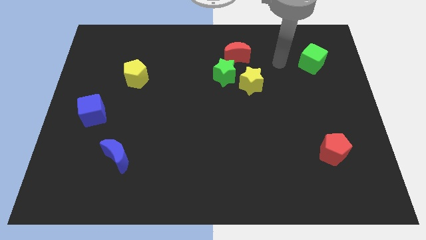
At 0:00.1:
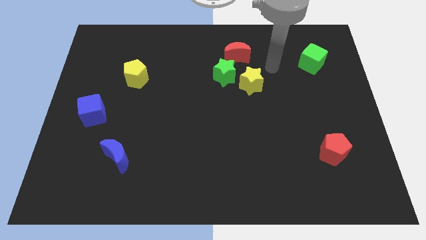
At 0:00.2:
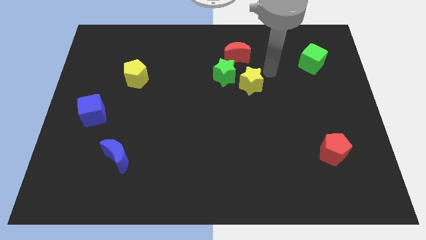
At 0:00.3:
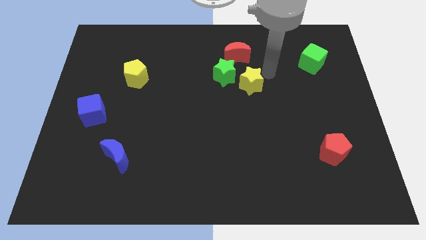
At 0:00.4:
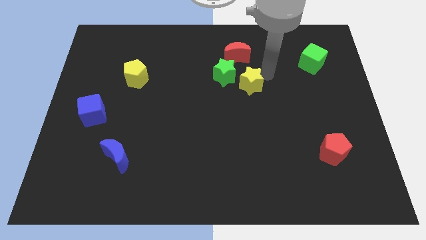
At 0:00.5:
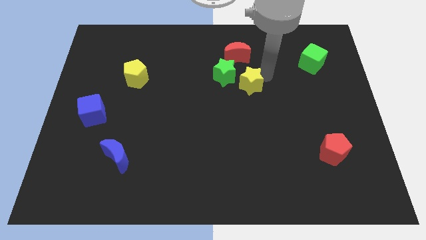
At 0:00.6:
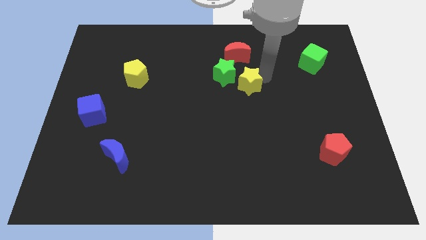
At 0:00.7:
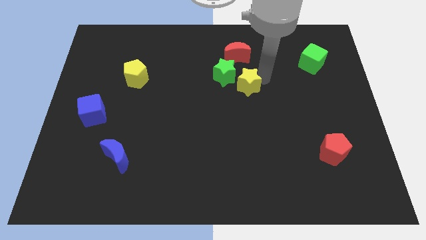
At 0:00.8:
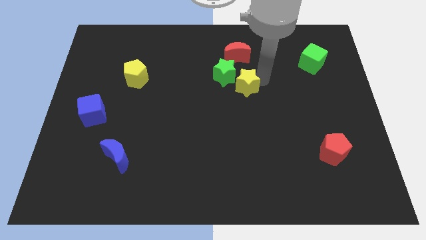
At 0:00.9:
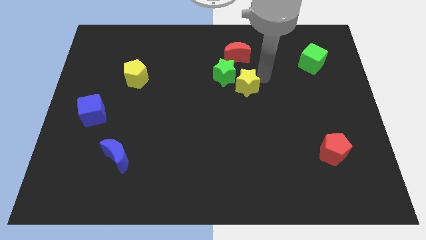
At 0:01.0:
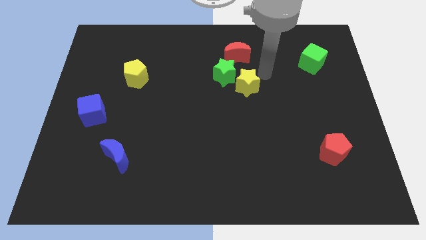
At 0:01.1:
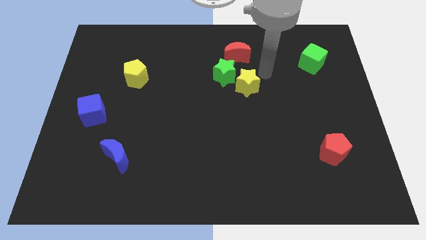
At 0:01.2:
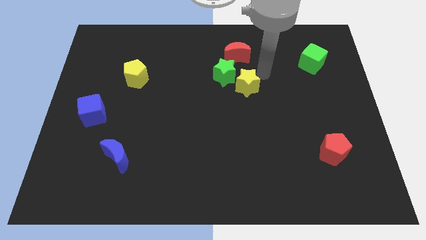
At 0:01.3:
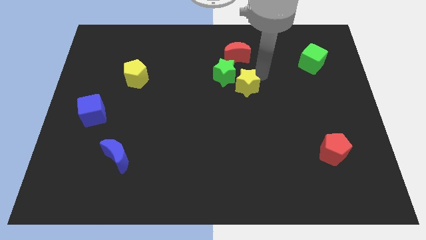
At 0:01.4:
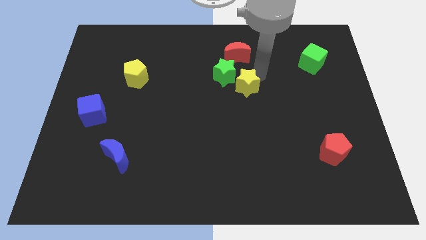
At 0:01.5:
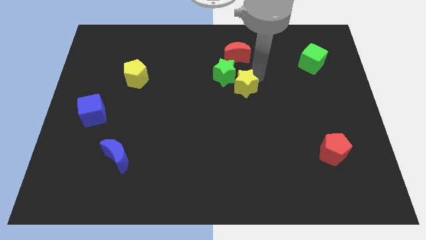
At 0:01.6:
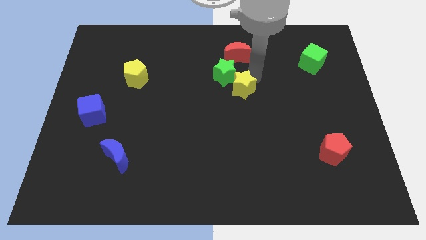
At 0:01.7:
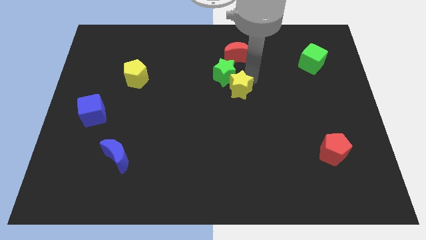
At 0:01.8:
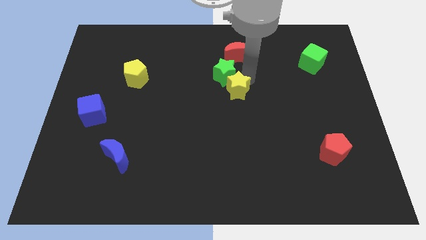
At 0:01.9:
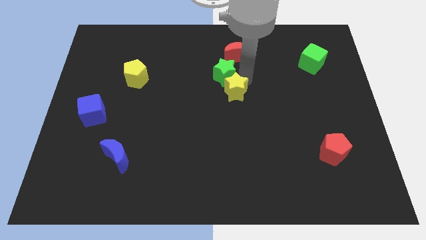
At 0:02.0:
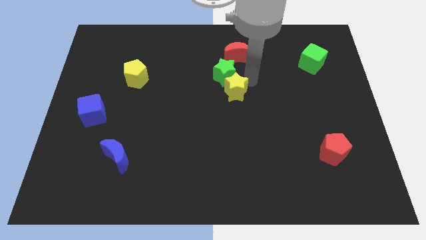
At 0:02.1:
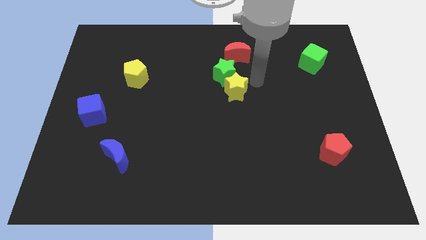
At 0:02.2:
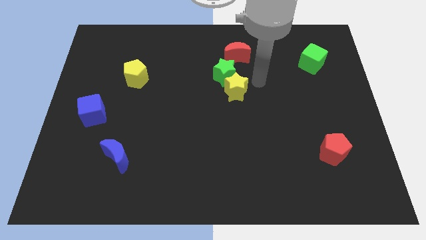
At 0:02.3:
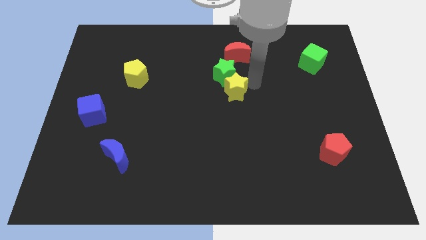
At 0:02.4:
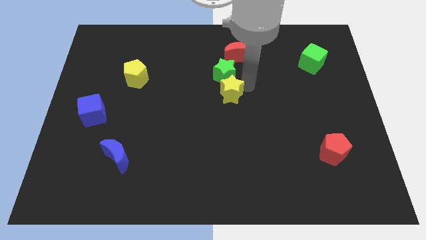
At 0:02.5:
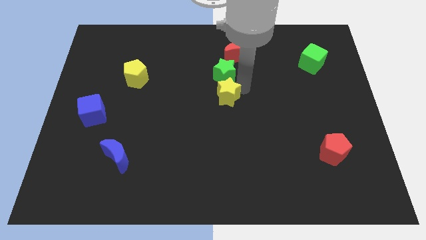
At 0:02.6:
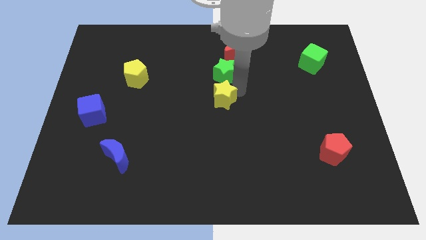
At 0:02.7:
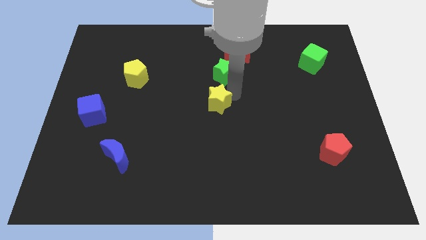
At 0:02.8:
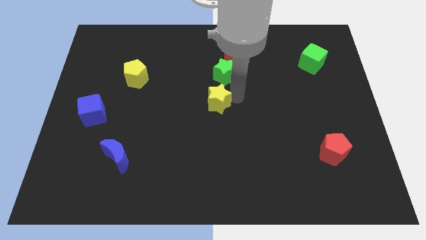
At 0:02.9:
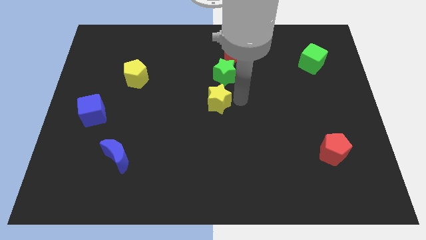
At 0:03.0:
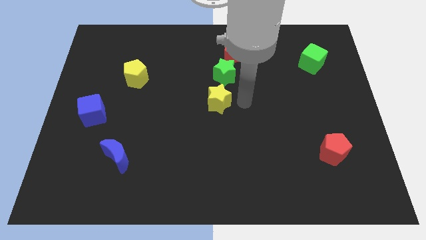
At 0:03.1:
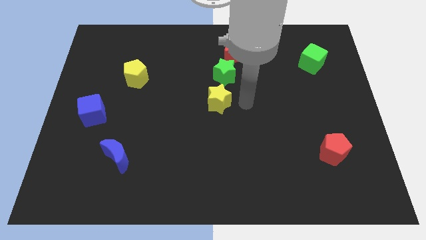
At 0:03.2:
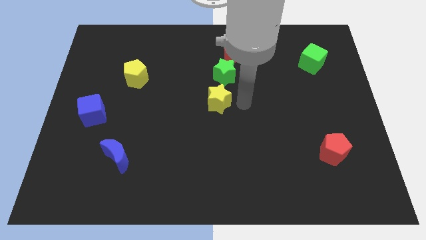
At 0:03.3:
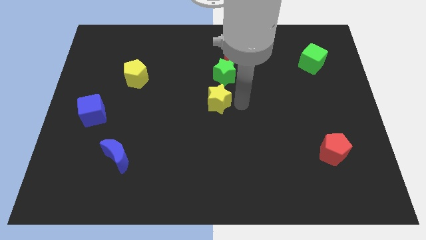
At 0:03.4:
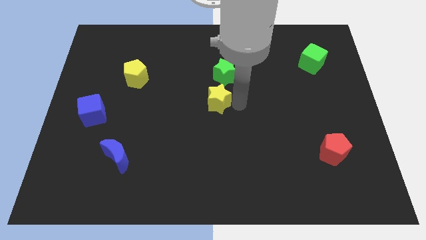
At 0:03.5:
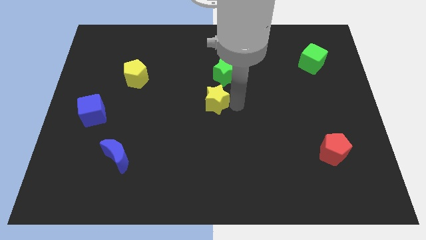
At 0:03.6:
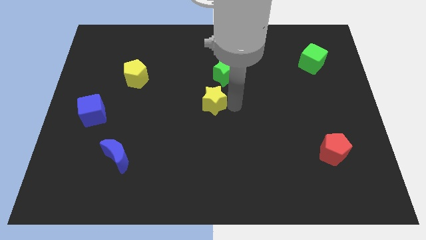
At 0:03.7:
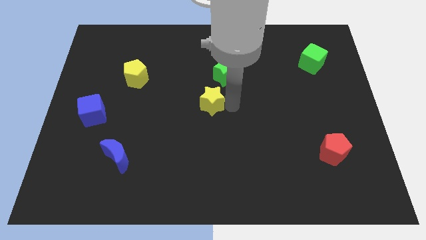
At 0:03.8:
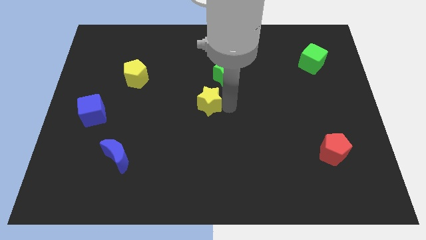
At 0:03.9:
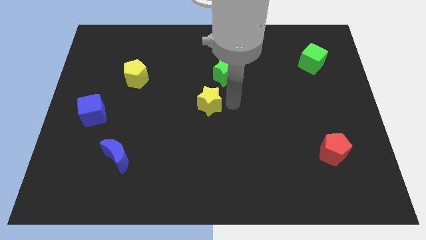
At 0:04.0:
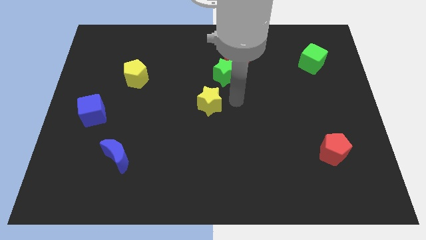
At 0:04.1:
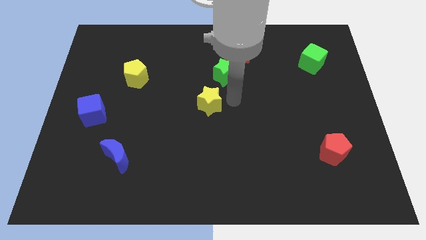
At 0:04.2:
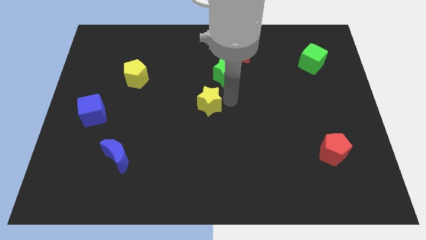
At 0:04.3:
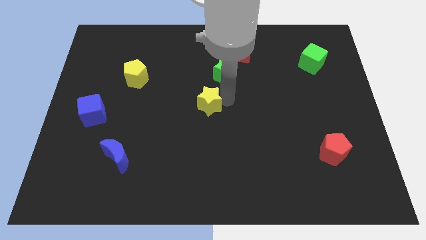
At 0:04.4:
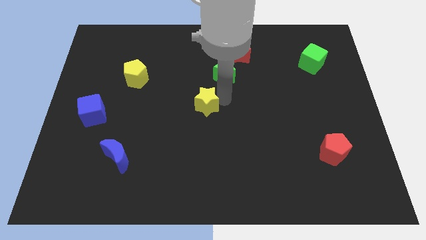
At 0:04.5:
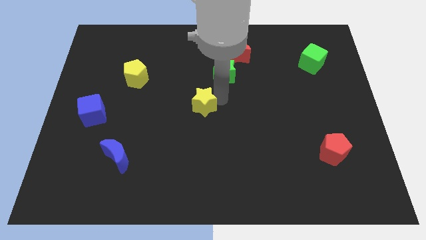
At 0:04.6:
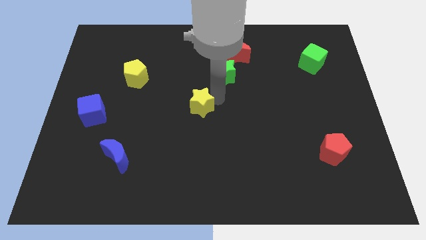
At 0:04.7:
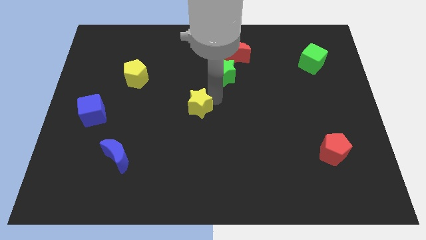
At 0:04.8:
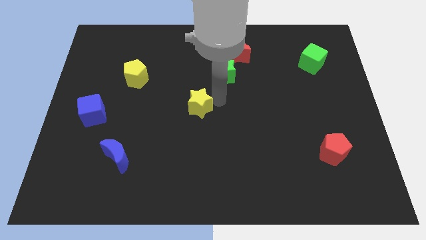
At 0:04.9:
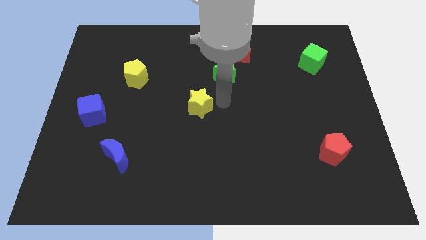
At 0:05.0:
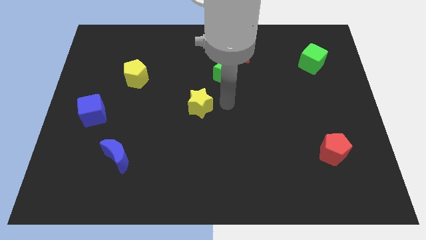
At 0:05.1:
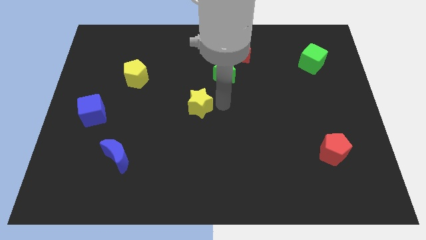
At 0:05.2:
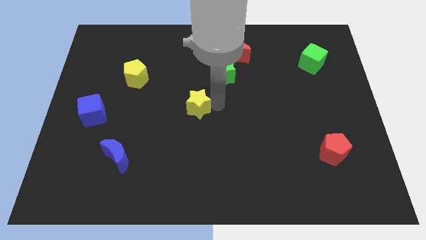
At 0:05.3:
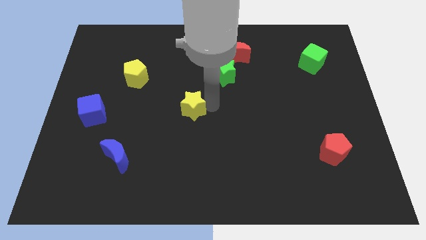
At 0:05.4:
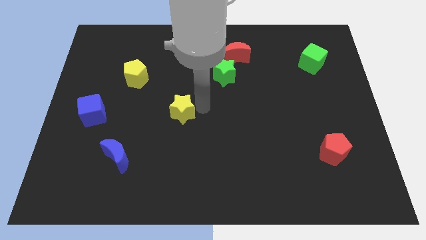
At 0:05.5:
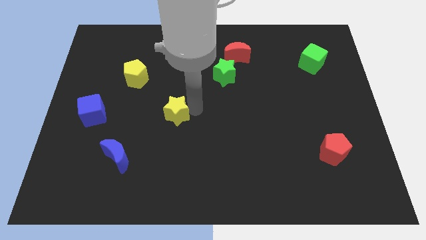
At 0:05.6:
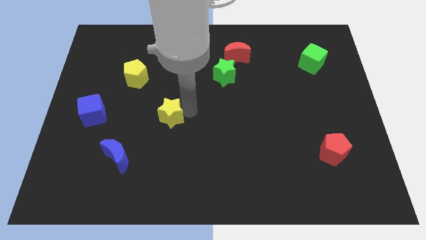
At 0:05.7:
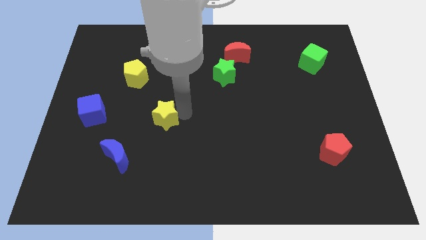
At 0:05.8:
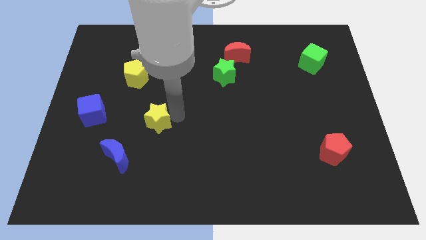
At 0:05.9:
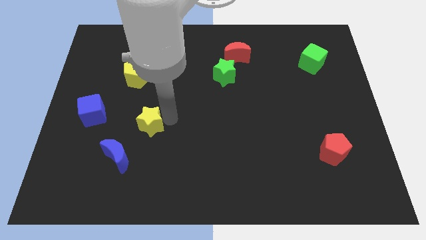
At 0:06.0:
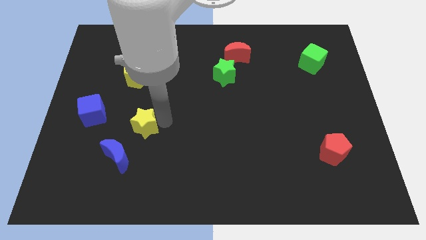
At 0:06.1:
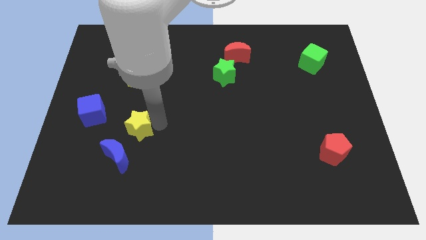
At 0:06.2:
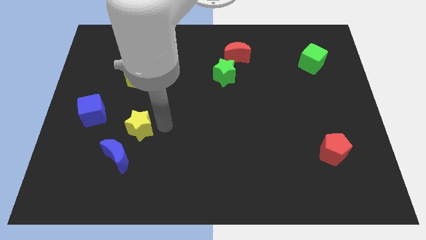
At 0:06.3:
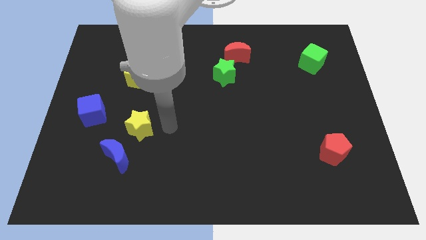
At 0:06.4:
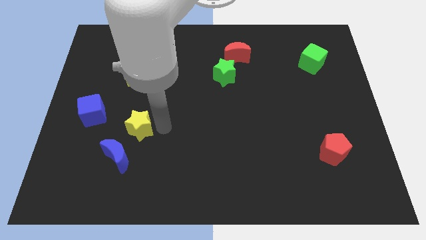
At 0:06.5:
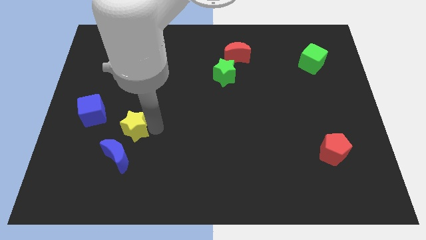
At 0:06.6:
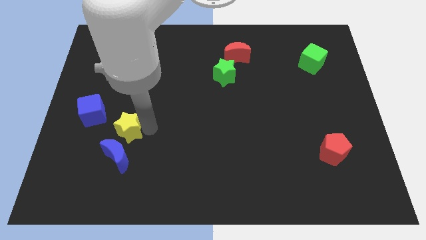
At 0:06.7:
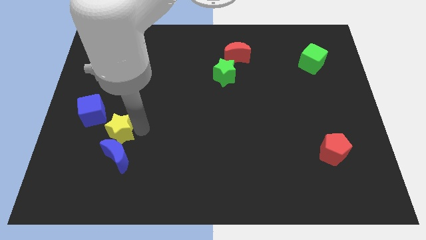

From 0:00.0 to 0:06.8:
slide the yellow star to the top left of the blue moon

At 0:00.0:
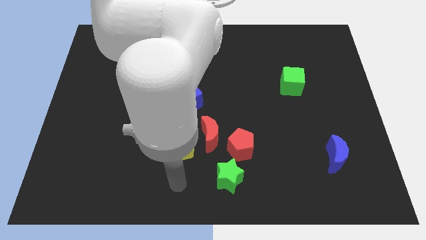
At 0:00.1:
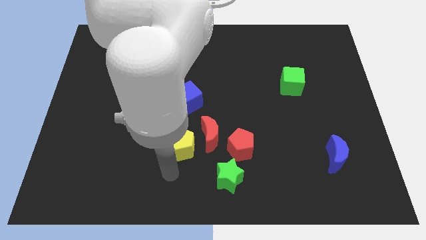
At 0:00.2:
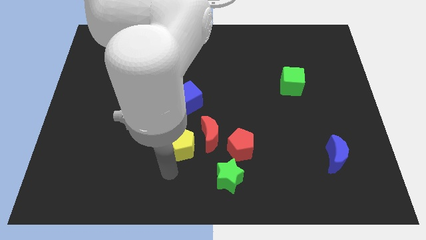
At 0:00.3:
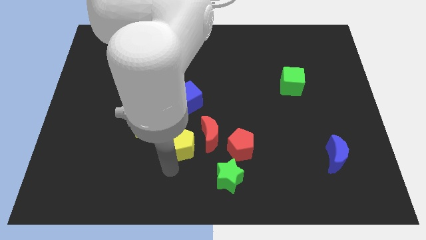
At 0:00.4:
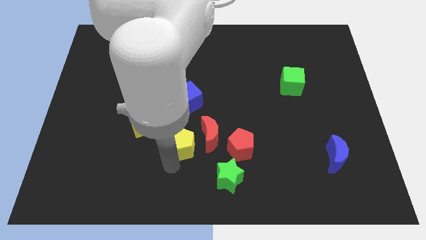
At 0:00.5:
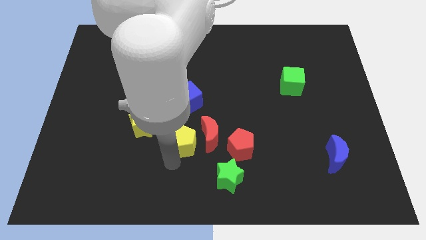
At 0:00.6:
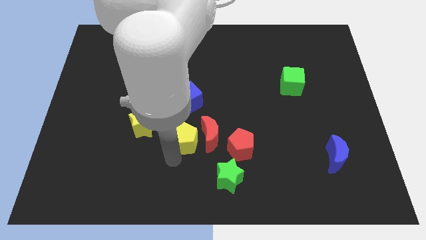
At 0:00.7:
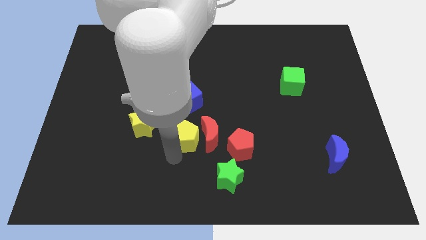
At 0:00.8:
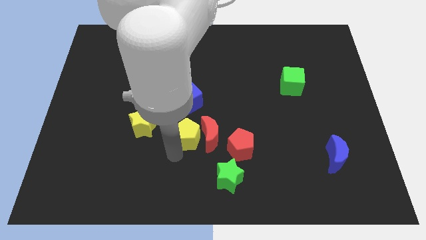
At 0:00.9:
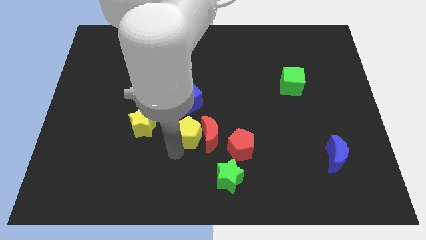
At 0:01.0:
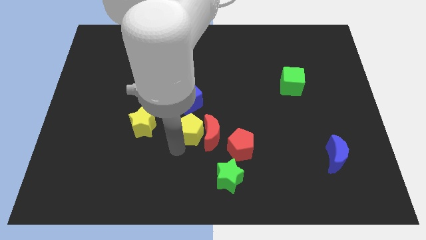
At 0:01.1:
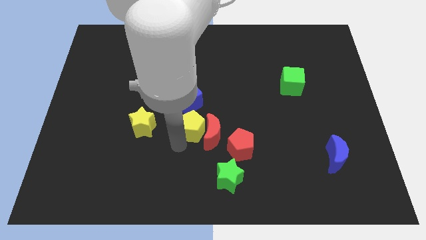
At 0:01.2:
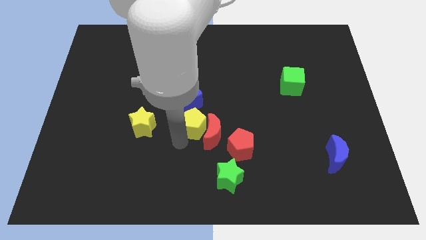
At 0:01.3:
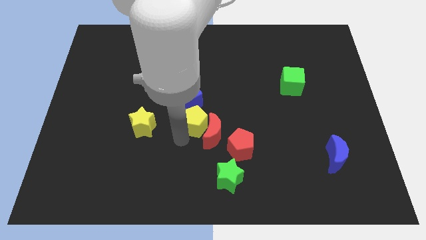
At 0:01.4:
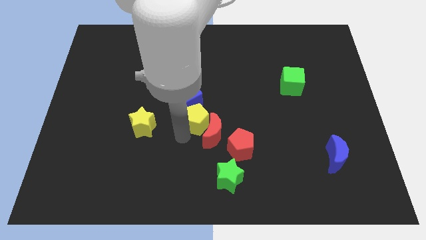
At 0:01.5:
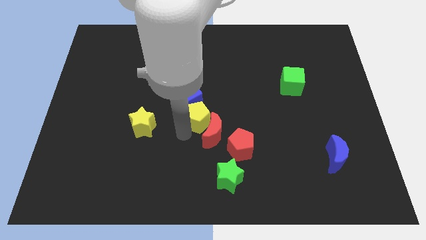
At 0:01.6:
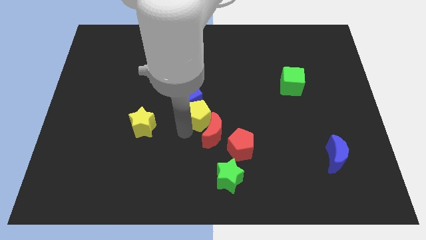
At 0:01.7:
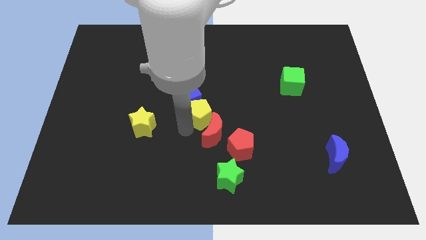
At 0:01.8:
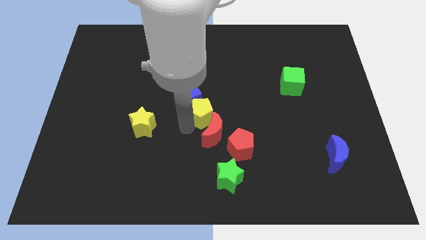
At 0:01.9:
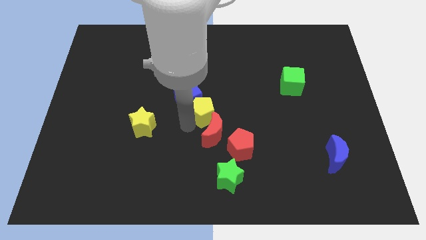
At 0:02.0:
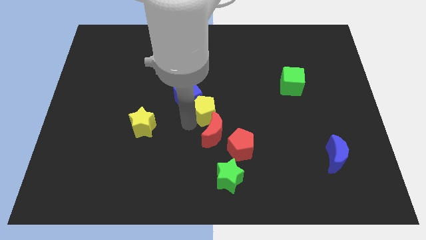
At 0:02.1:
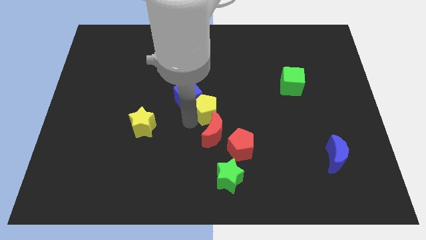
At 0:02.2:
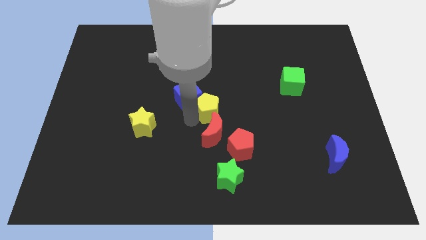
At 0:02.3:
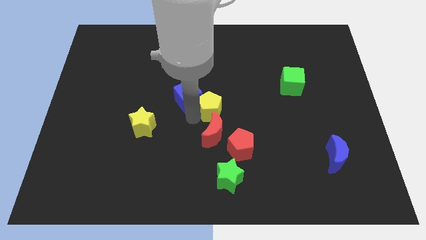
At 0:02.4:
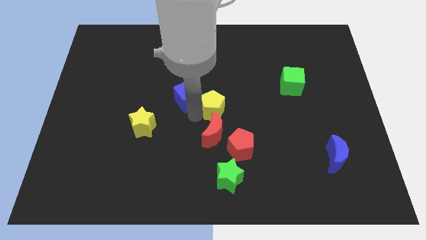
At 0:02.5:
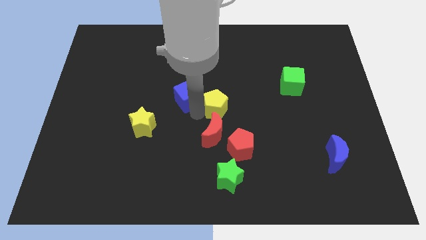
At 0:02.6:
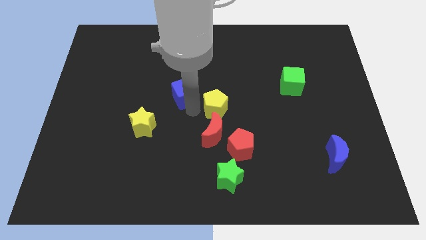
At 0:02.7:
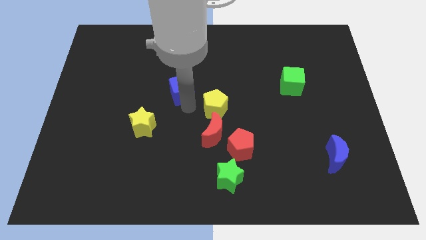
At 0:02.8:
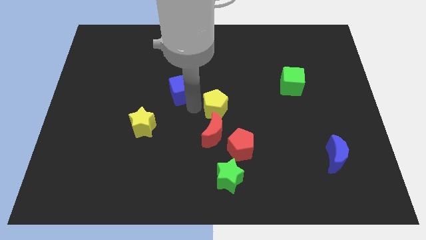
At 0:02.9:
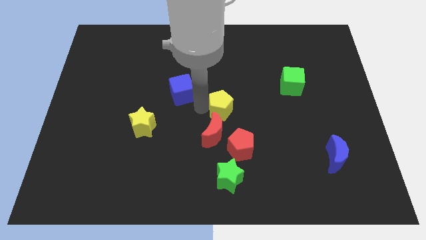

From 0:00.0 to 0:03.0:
push the yellow pentagon to the top of the red pentagon
